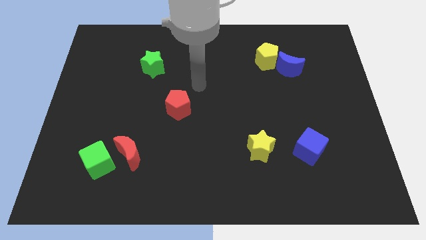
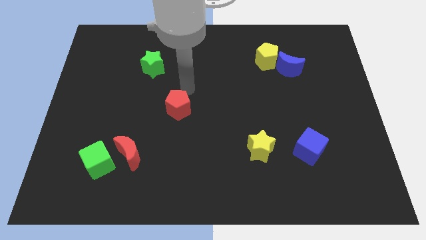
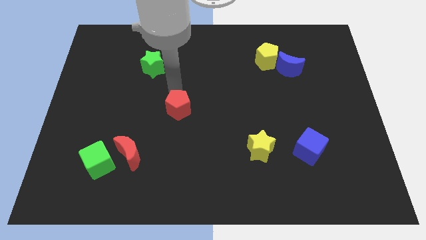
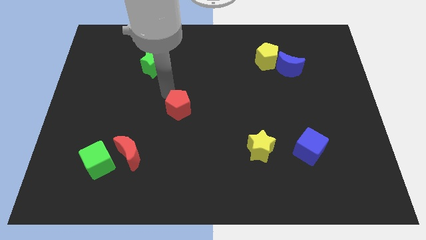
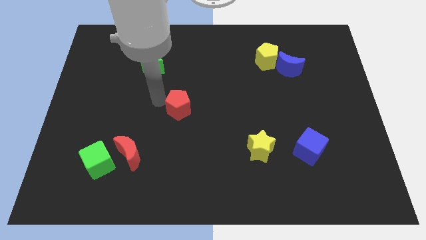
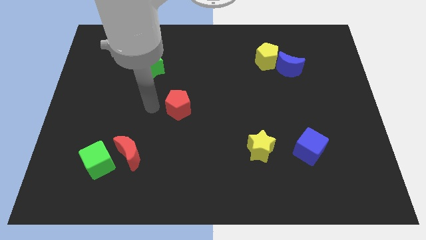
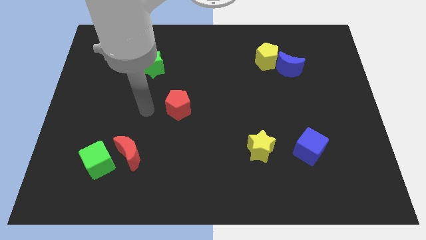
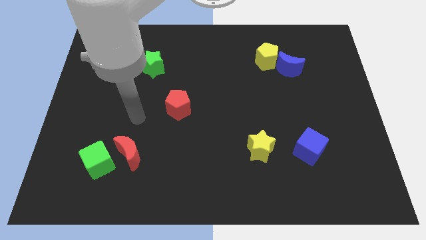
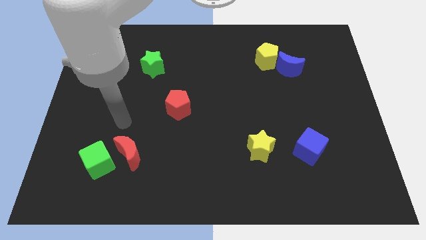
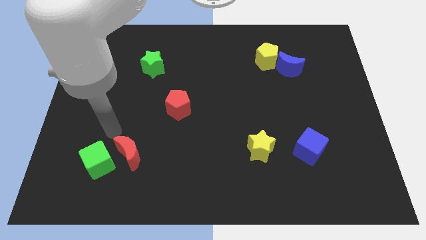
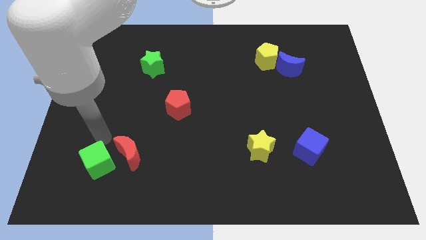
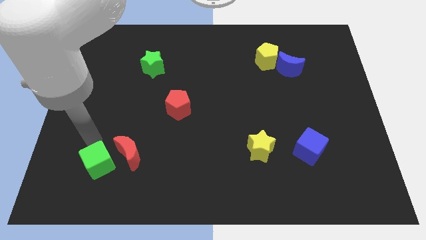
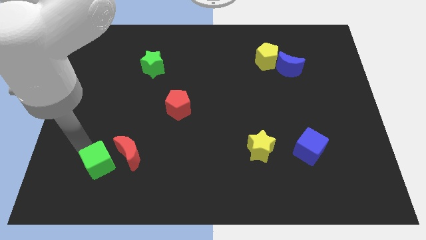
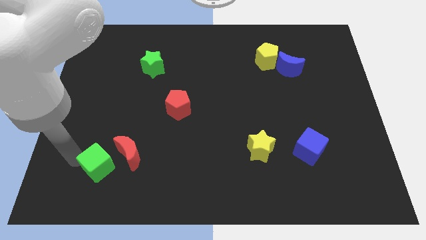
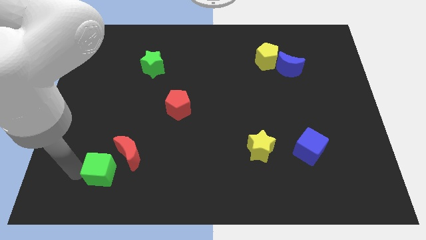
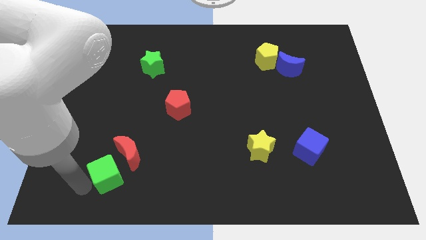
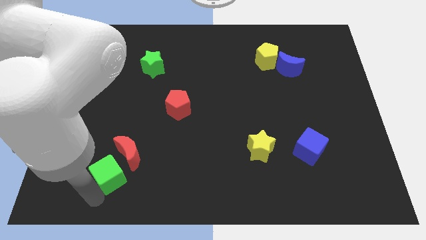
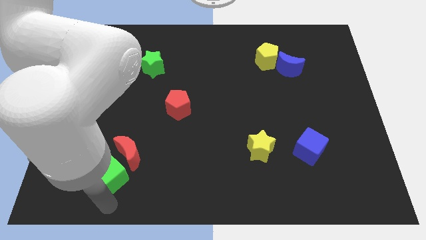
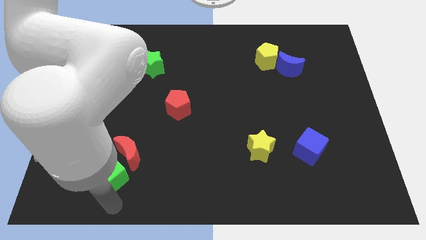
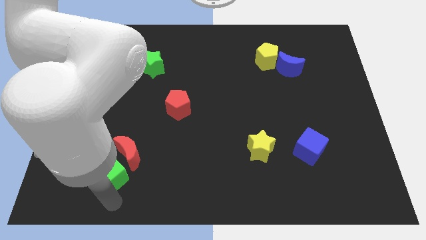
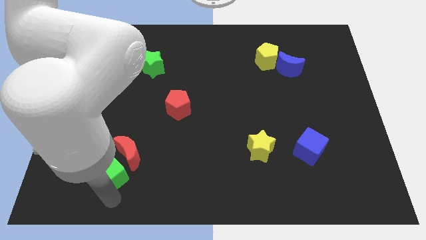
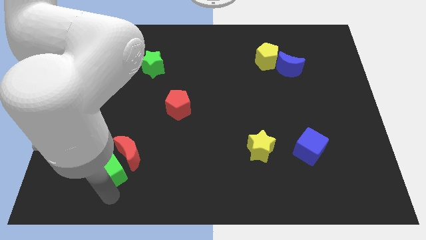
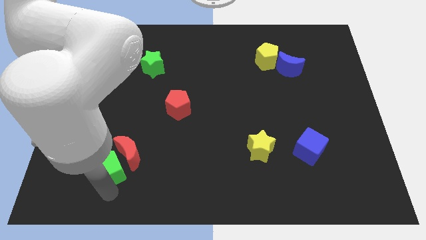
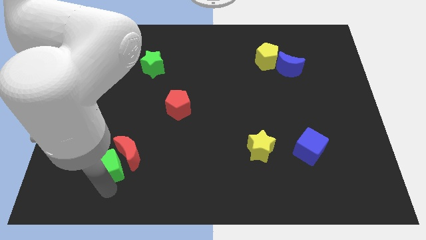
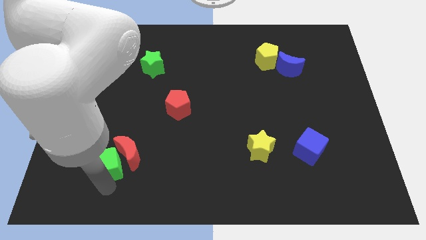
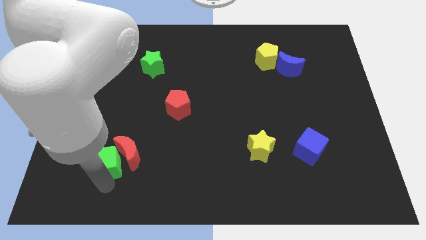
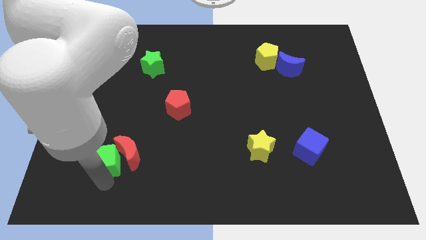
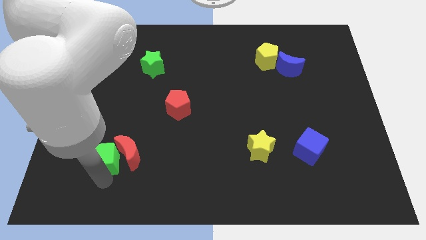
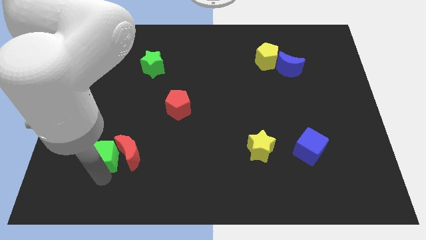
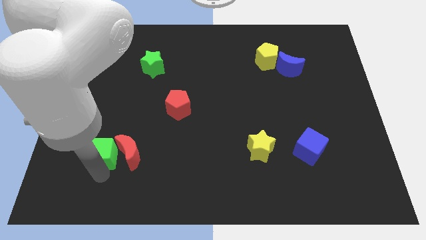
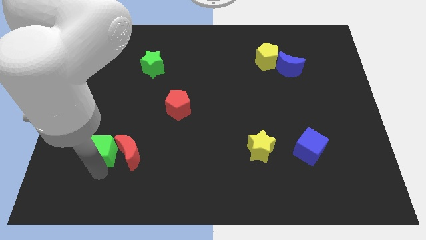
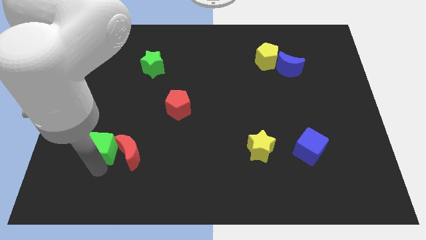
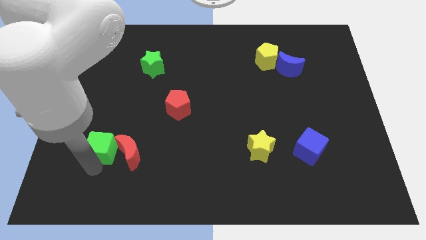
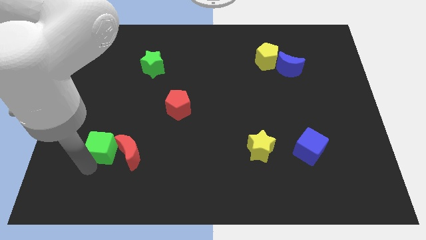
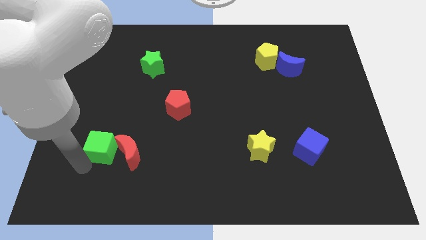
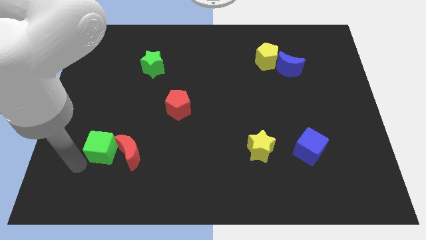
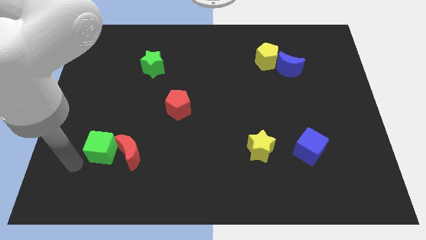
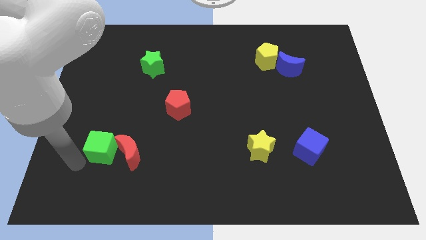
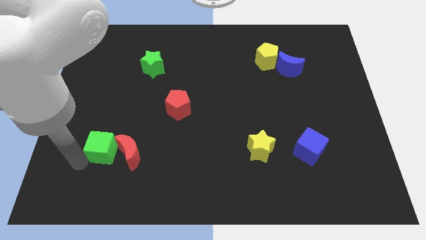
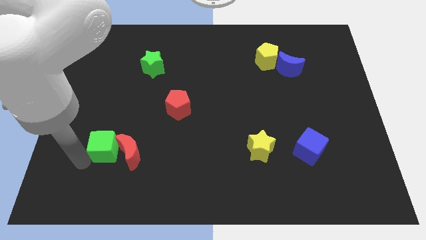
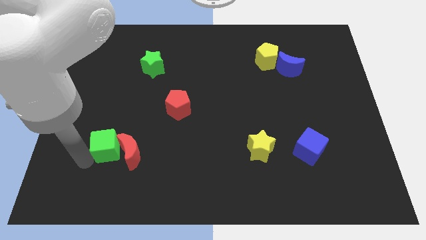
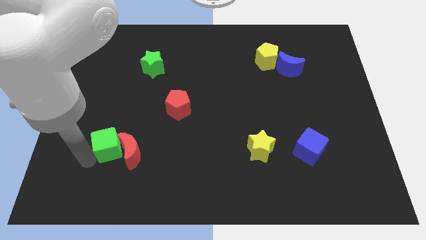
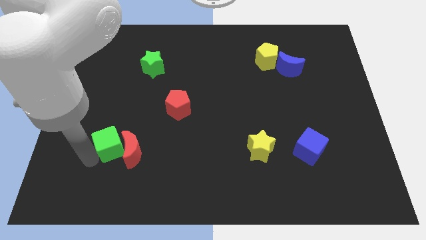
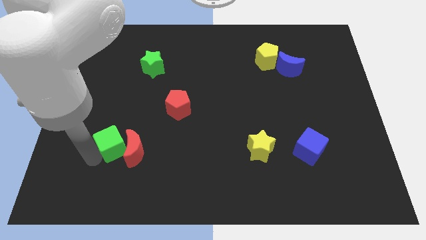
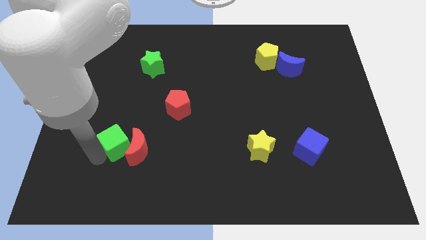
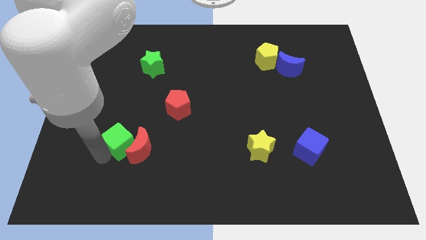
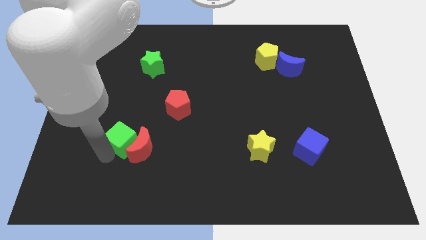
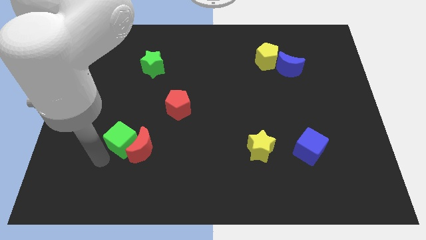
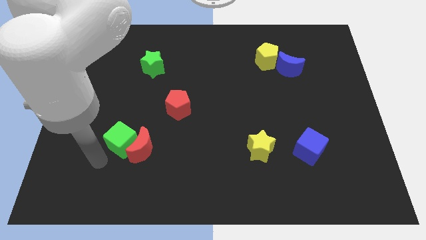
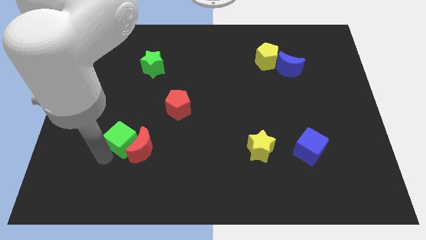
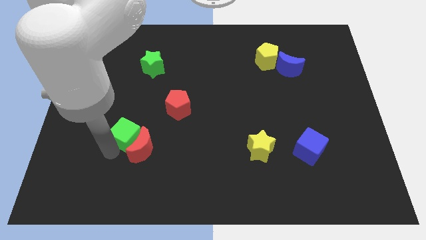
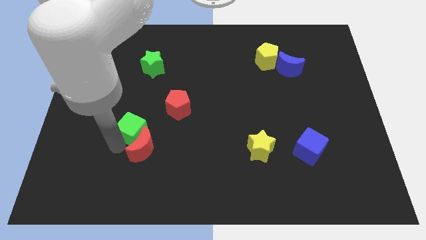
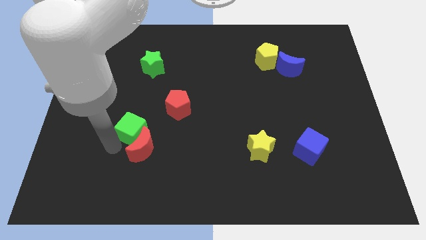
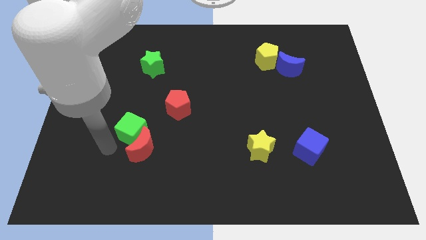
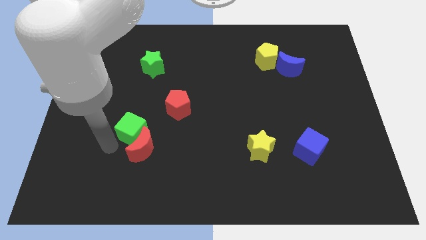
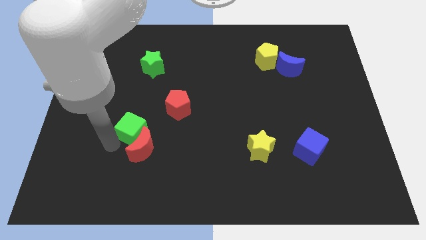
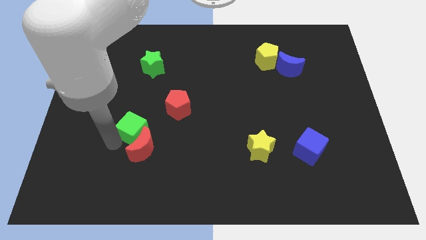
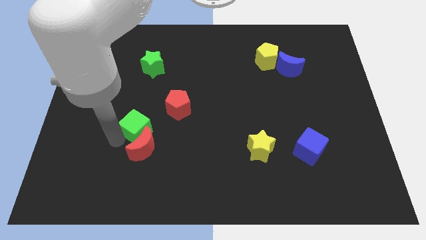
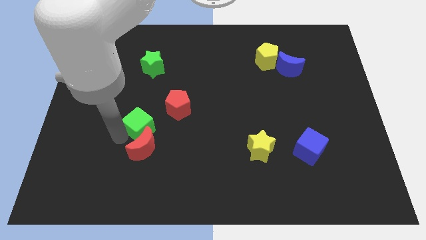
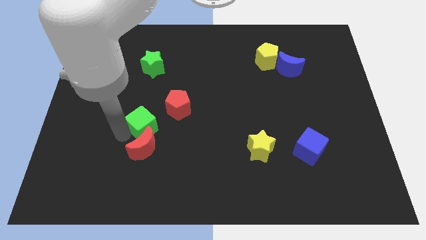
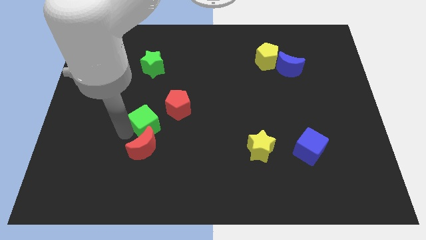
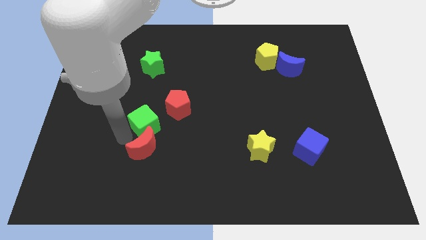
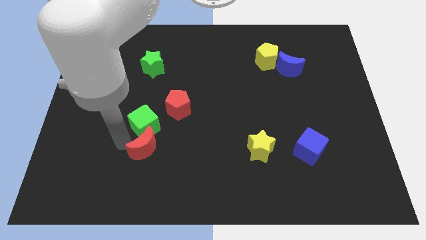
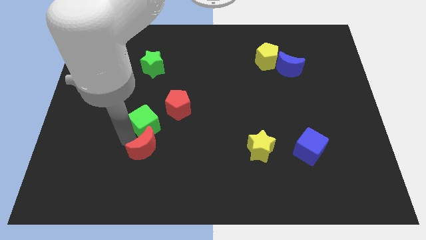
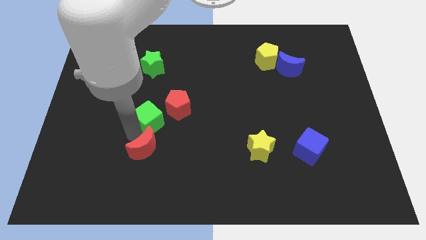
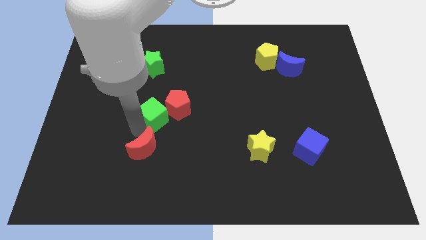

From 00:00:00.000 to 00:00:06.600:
push the green cube to the red pentagon
